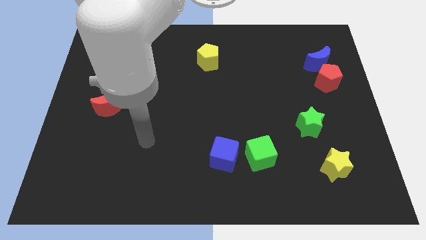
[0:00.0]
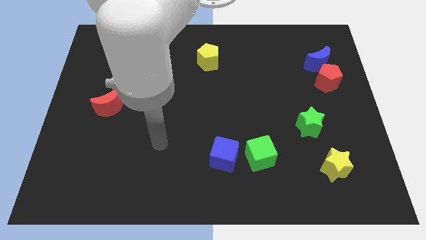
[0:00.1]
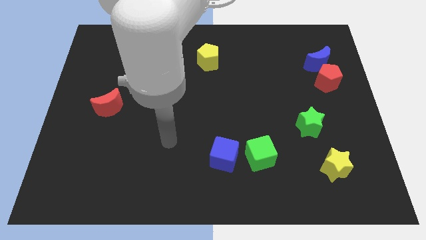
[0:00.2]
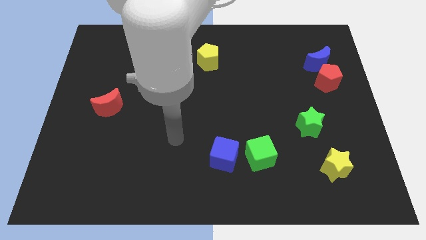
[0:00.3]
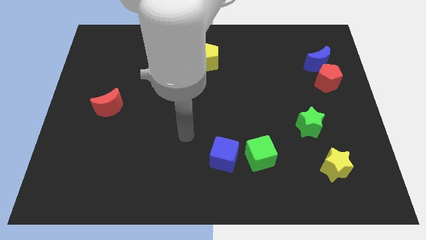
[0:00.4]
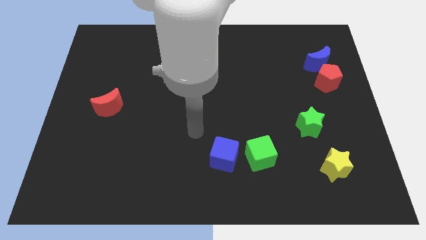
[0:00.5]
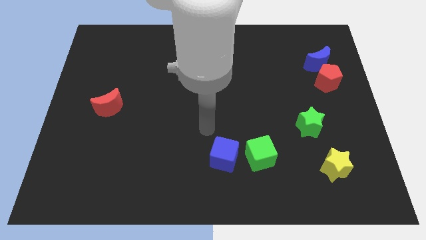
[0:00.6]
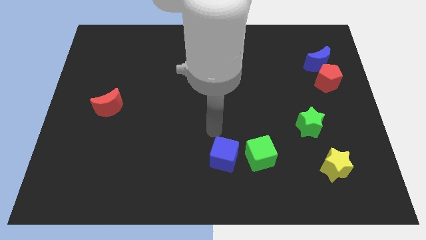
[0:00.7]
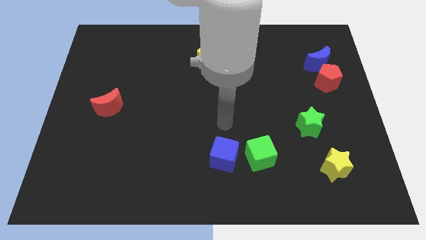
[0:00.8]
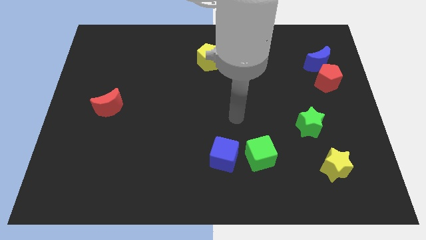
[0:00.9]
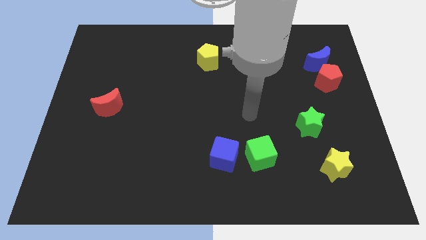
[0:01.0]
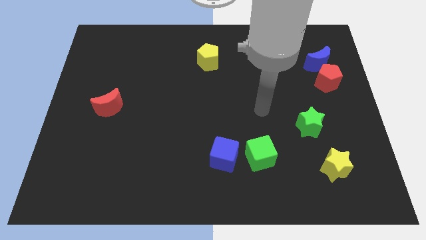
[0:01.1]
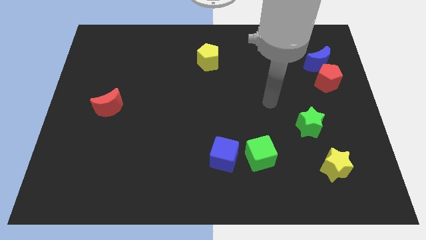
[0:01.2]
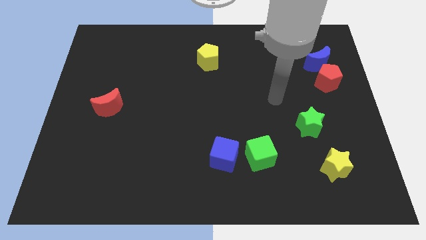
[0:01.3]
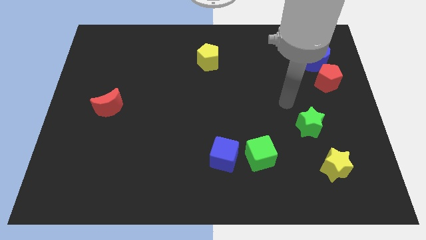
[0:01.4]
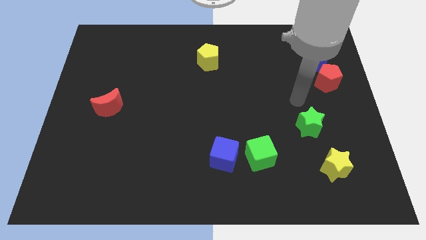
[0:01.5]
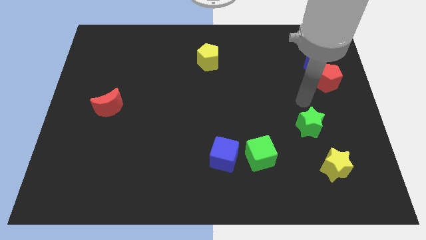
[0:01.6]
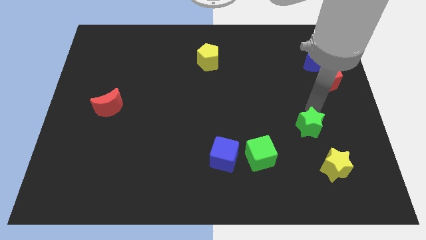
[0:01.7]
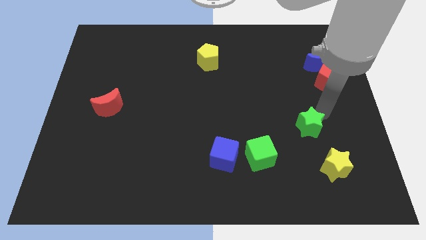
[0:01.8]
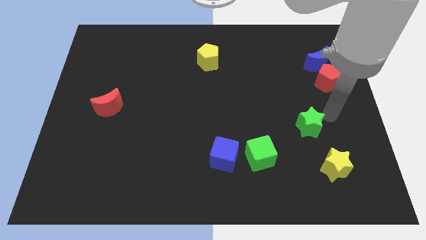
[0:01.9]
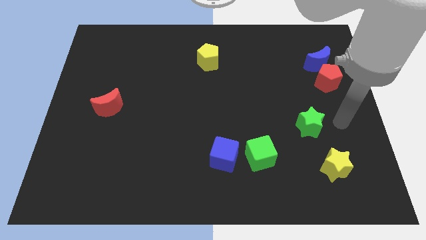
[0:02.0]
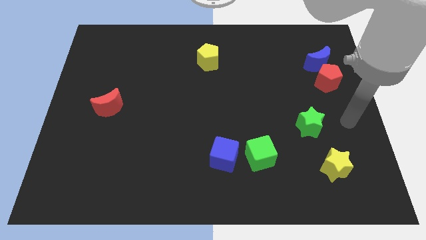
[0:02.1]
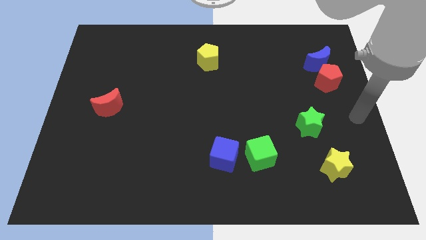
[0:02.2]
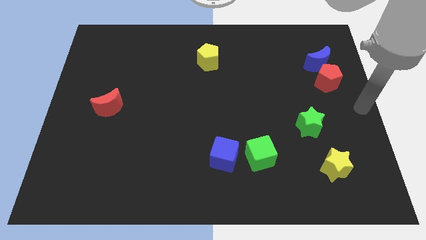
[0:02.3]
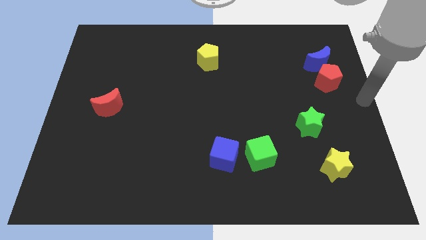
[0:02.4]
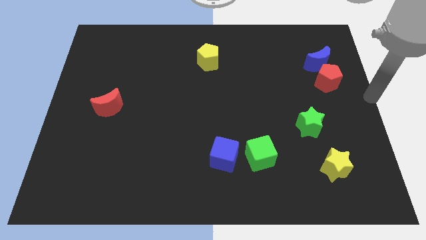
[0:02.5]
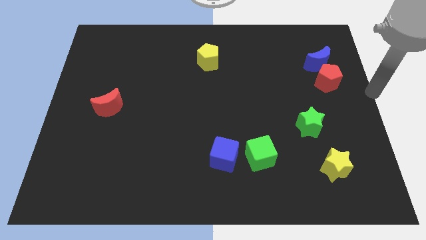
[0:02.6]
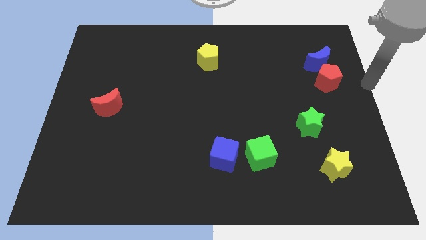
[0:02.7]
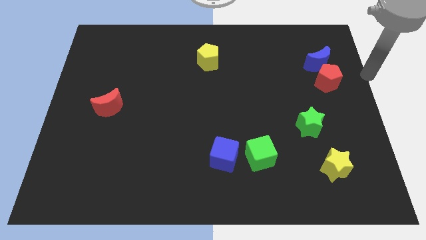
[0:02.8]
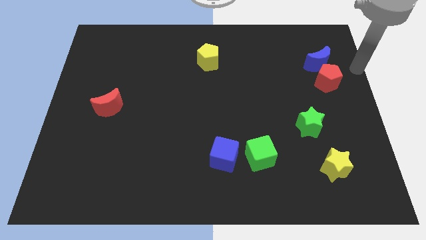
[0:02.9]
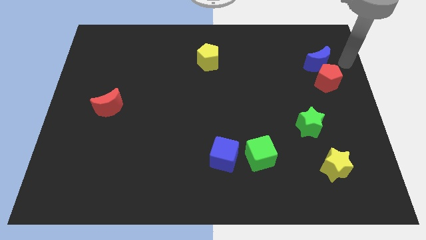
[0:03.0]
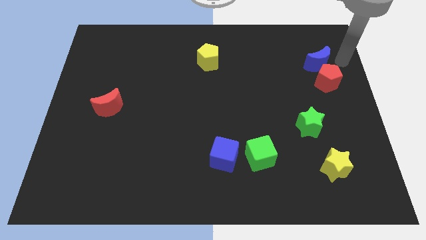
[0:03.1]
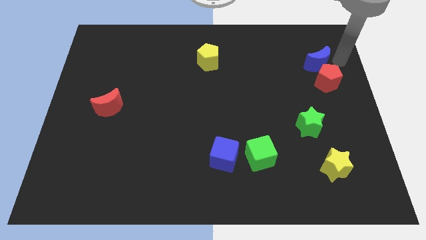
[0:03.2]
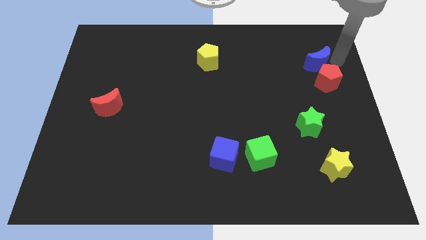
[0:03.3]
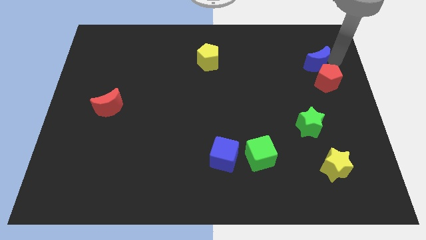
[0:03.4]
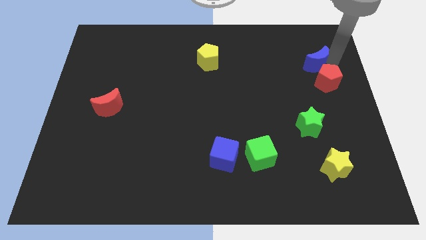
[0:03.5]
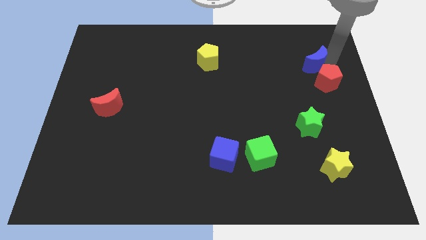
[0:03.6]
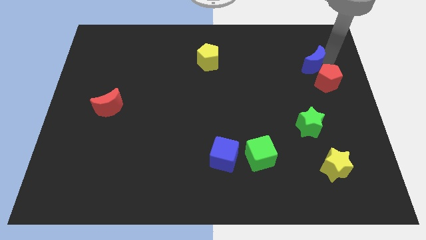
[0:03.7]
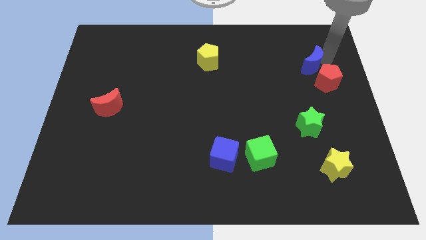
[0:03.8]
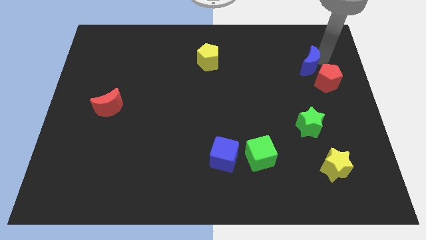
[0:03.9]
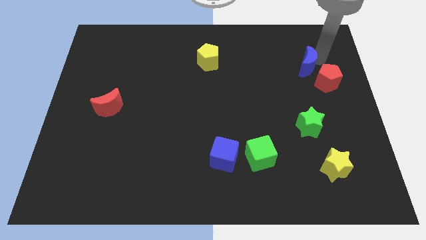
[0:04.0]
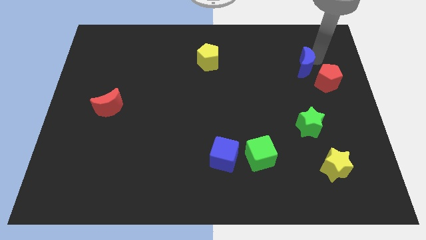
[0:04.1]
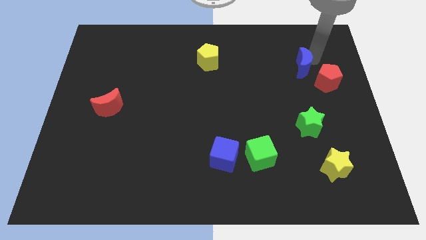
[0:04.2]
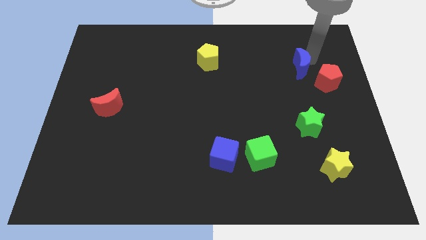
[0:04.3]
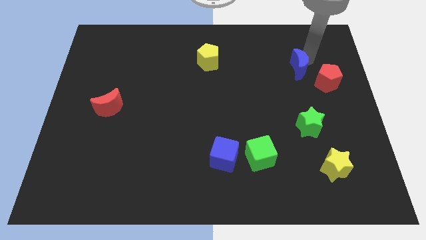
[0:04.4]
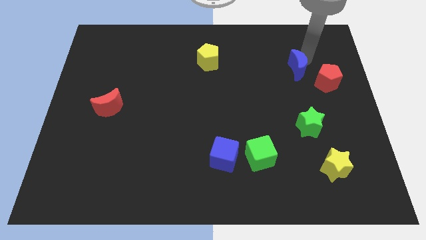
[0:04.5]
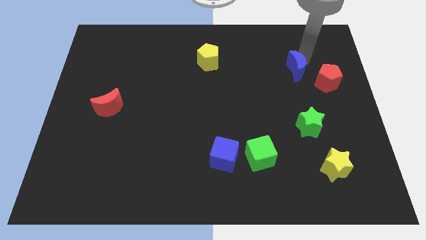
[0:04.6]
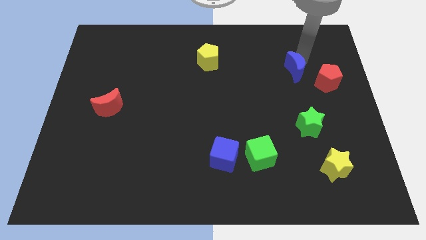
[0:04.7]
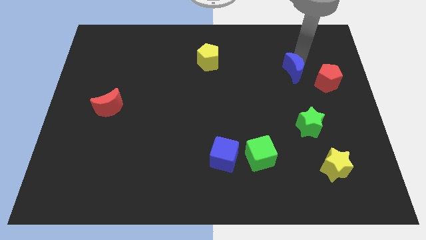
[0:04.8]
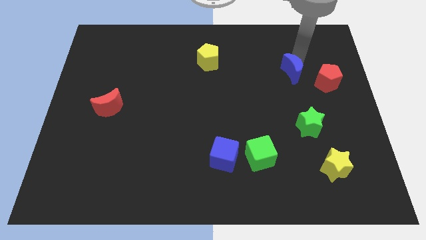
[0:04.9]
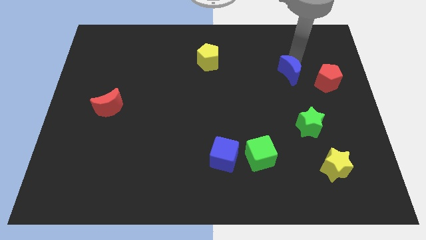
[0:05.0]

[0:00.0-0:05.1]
push the blue moon down and then left slightly

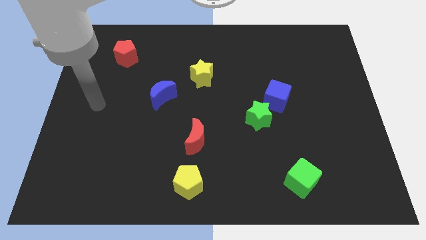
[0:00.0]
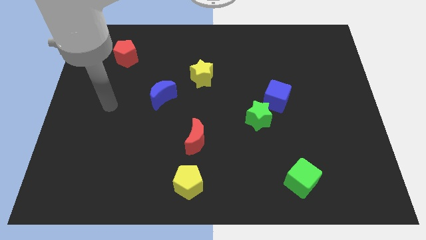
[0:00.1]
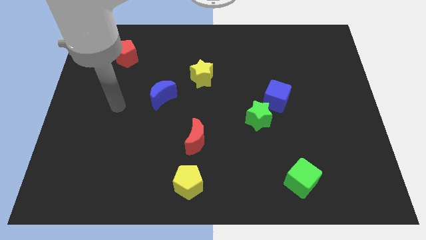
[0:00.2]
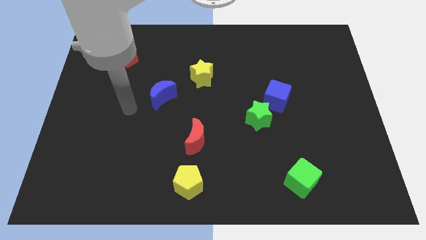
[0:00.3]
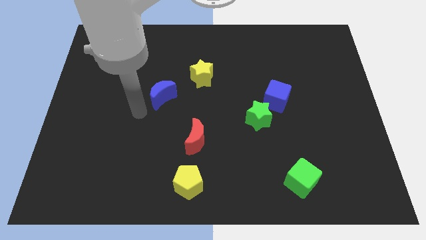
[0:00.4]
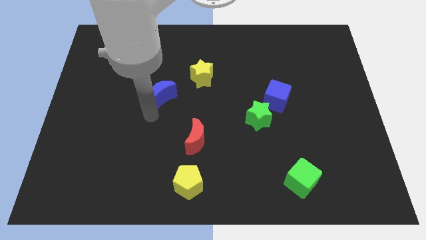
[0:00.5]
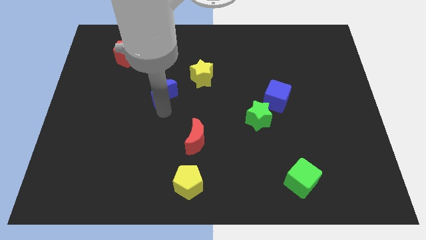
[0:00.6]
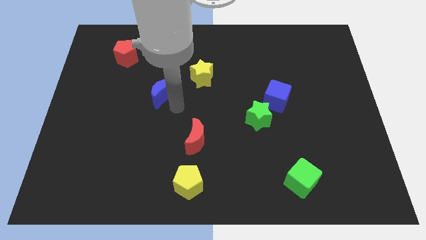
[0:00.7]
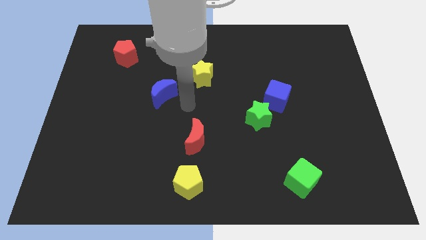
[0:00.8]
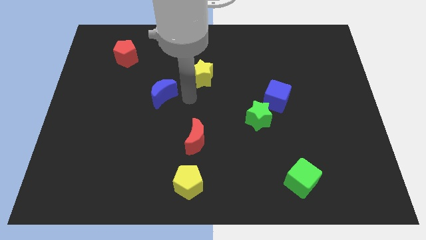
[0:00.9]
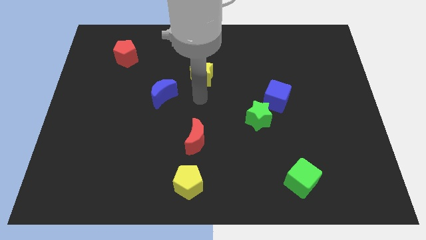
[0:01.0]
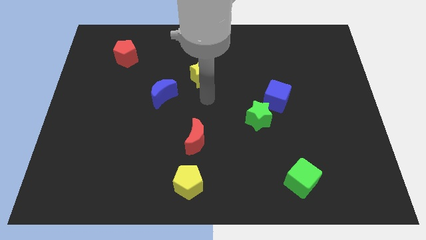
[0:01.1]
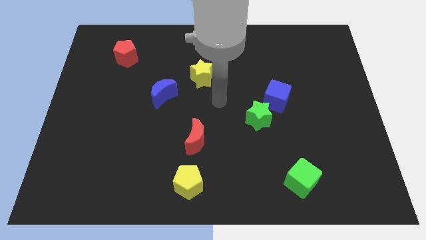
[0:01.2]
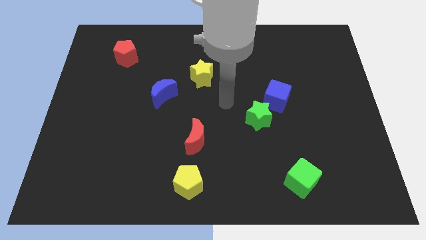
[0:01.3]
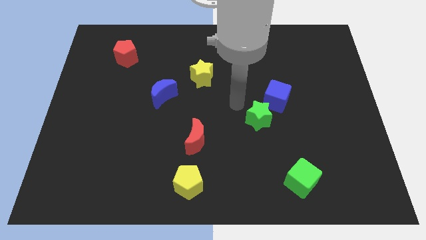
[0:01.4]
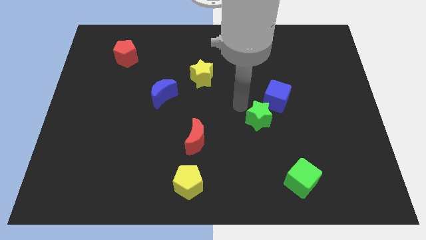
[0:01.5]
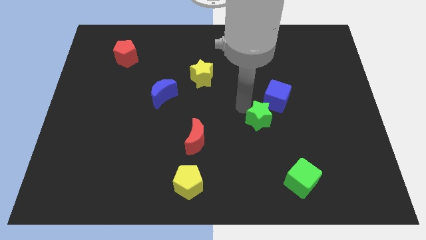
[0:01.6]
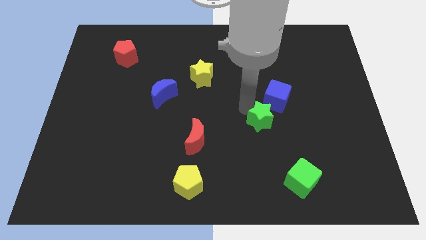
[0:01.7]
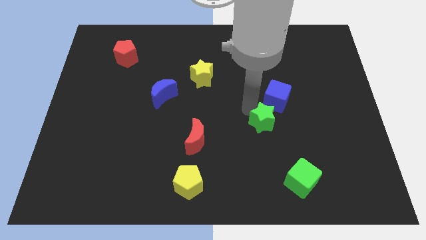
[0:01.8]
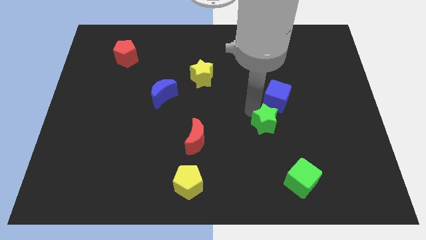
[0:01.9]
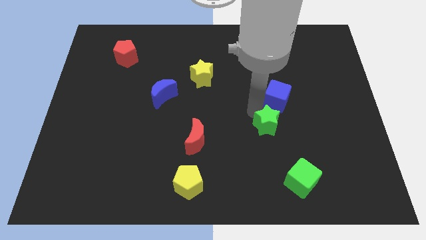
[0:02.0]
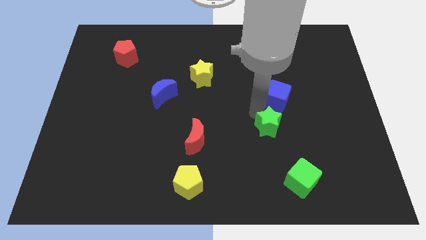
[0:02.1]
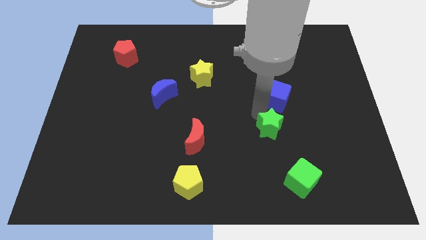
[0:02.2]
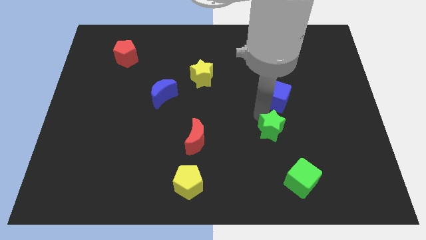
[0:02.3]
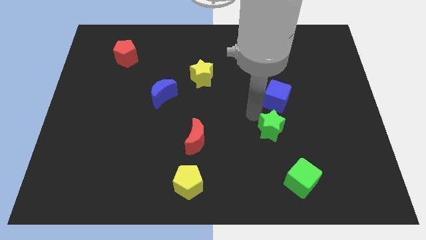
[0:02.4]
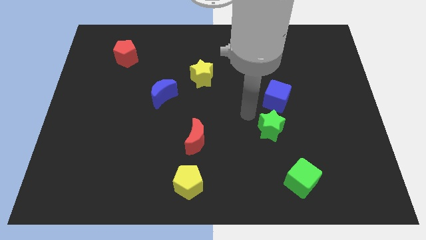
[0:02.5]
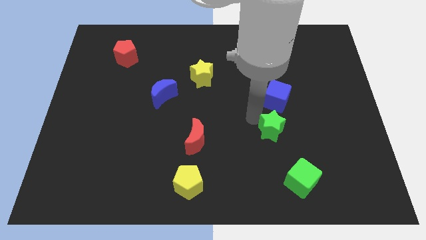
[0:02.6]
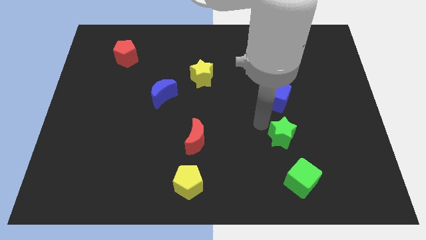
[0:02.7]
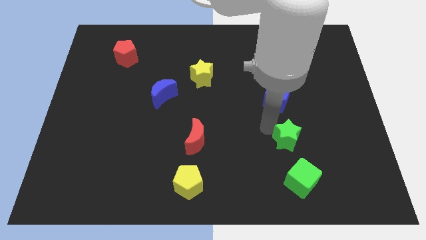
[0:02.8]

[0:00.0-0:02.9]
move the green star a bit down and right
